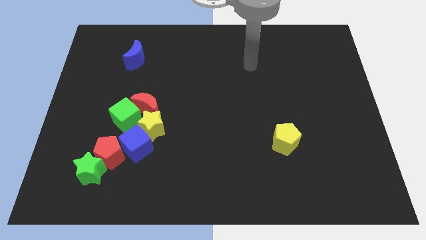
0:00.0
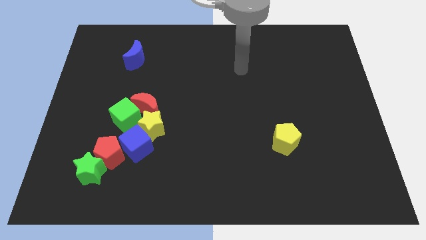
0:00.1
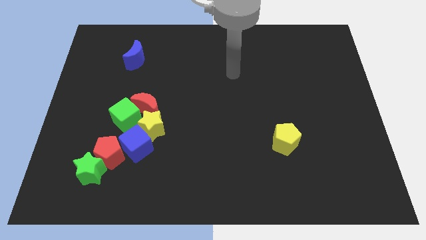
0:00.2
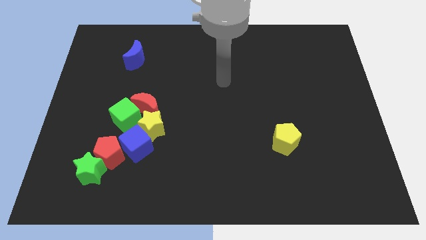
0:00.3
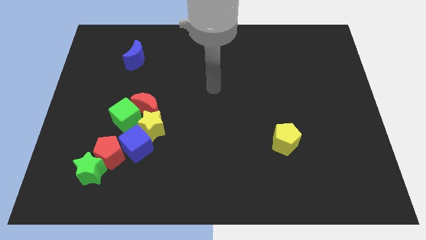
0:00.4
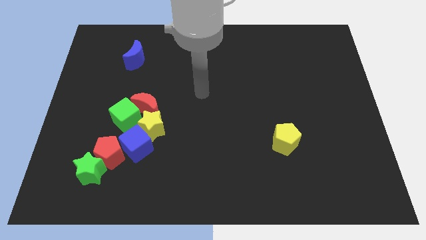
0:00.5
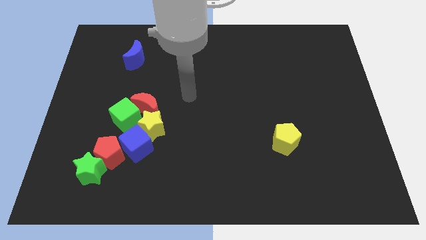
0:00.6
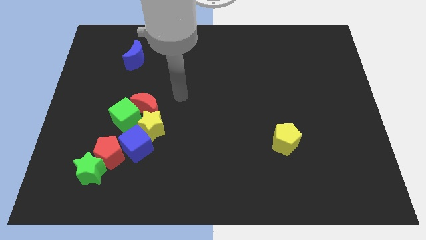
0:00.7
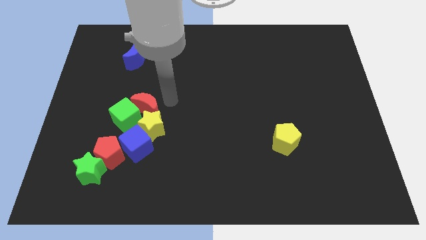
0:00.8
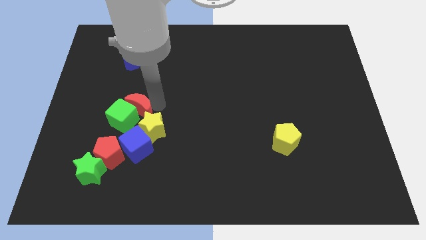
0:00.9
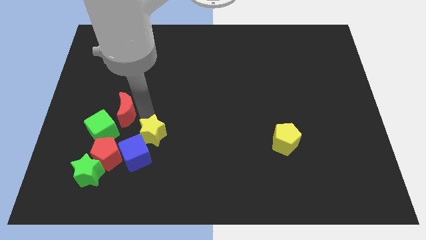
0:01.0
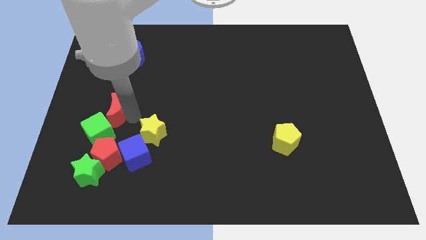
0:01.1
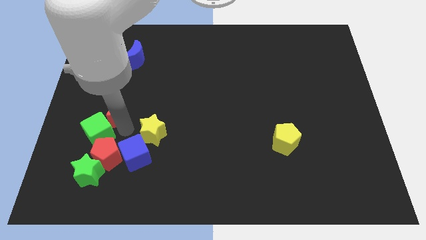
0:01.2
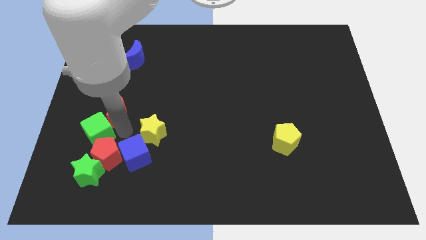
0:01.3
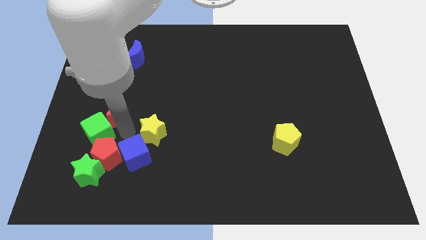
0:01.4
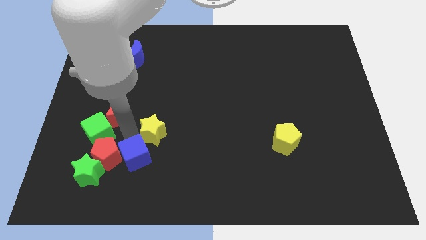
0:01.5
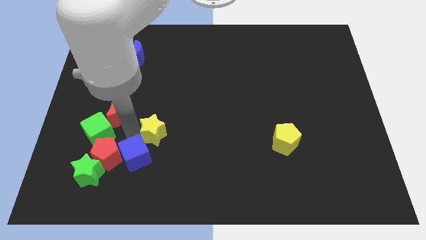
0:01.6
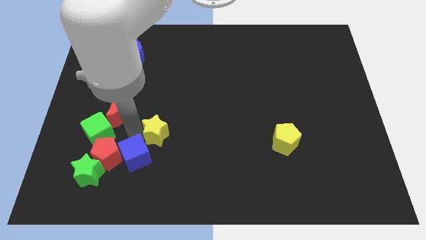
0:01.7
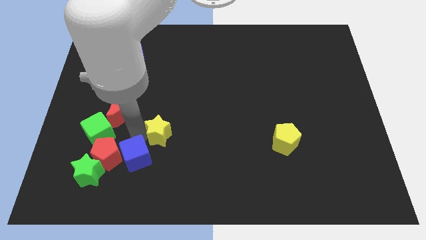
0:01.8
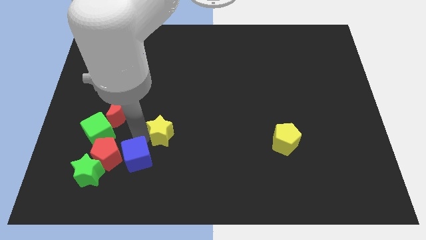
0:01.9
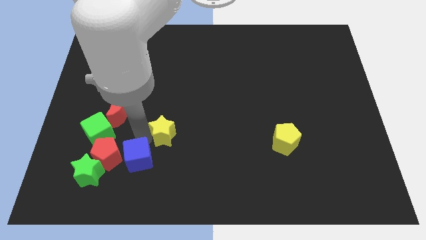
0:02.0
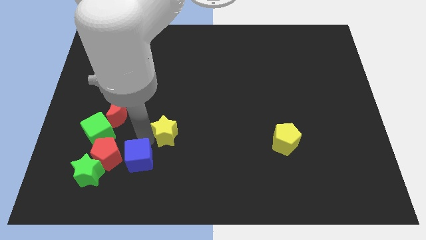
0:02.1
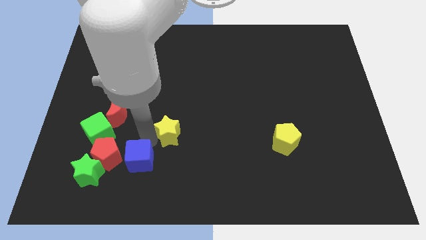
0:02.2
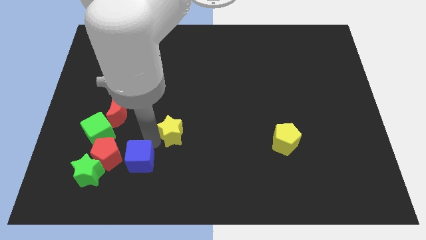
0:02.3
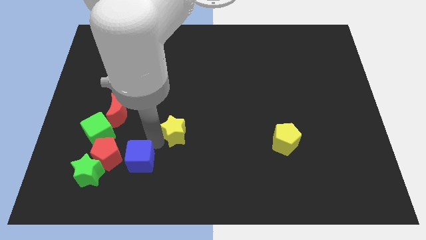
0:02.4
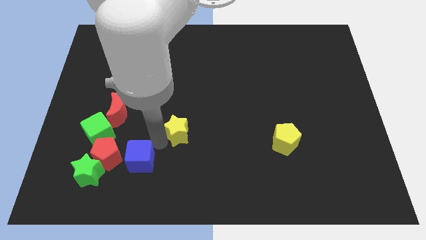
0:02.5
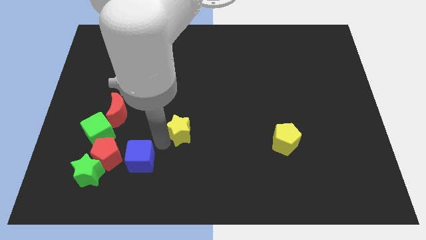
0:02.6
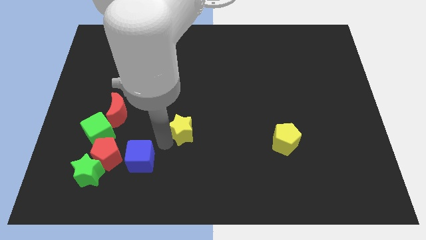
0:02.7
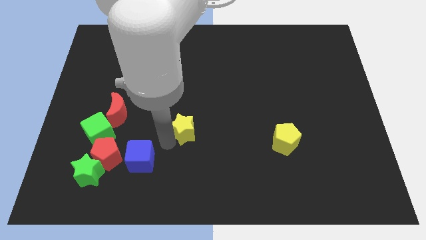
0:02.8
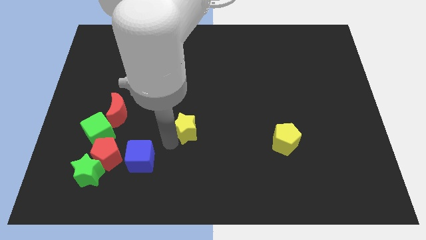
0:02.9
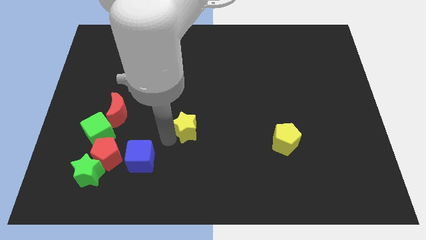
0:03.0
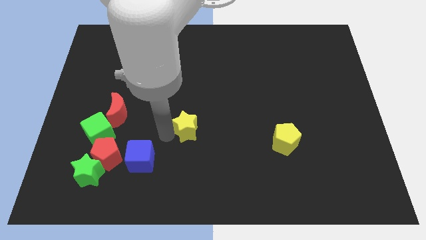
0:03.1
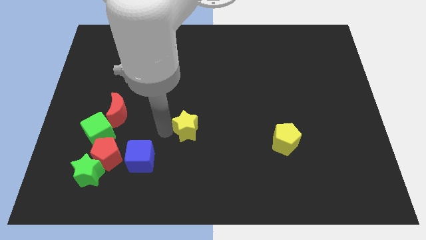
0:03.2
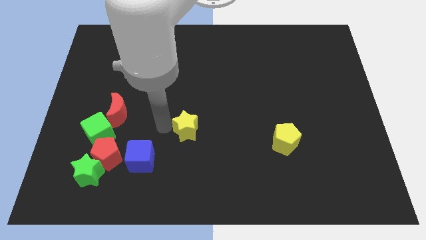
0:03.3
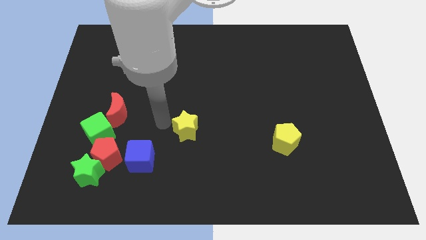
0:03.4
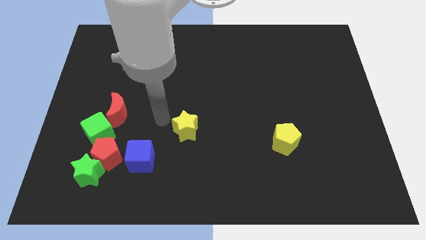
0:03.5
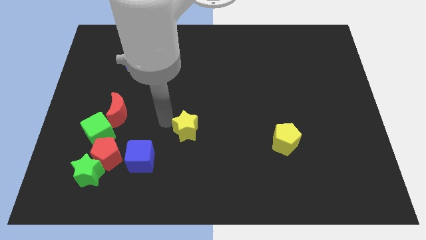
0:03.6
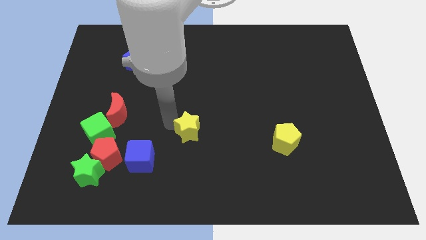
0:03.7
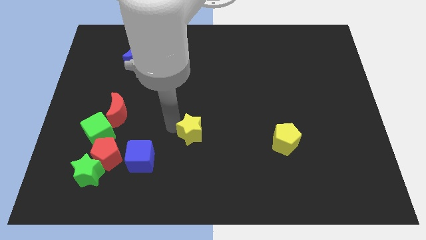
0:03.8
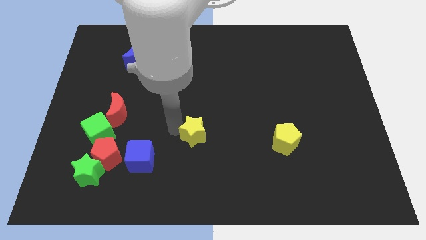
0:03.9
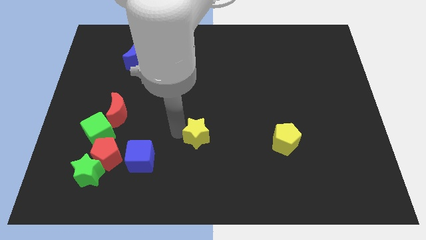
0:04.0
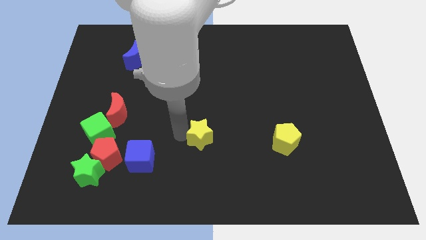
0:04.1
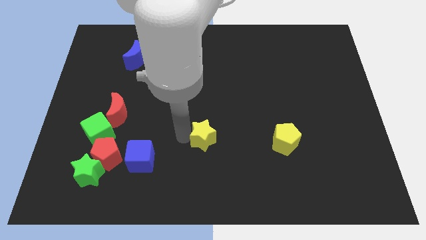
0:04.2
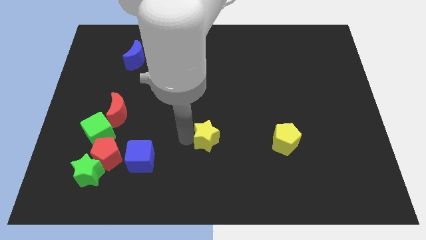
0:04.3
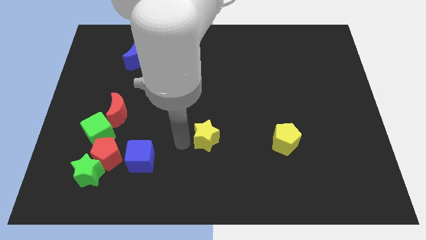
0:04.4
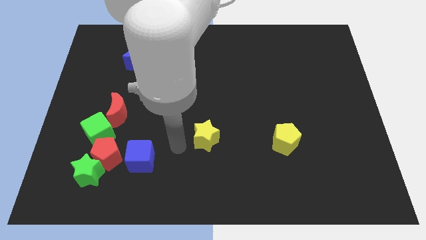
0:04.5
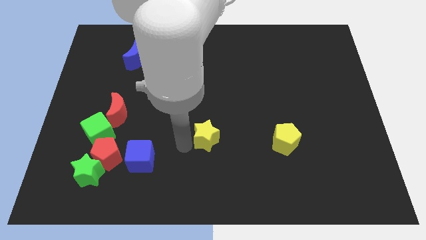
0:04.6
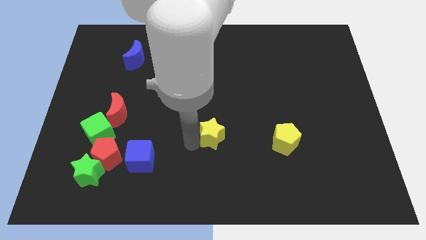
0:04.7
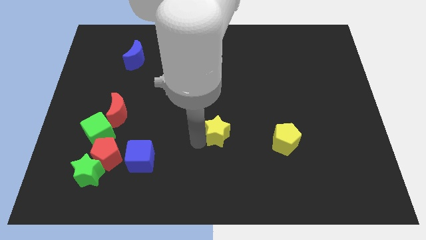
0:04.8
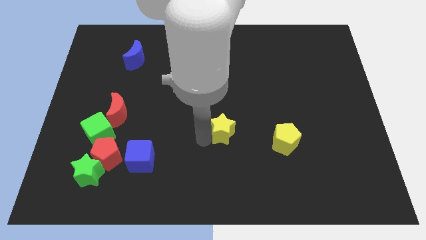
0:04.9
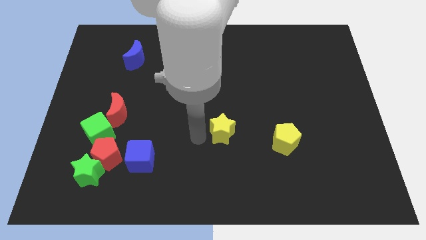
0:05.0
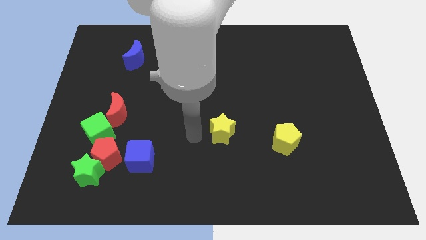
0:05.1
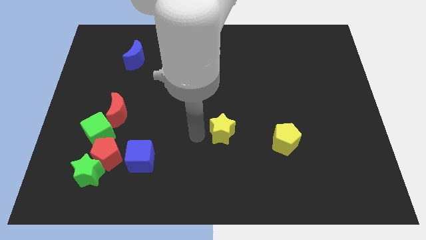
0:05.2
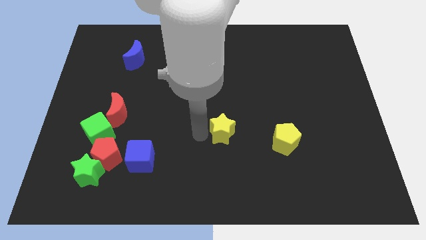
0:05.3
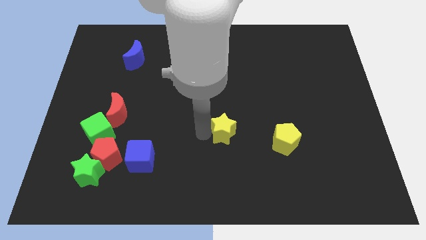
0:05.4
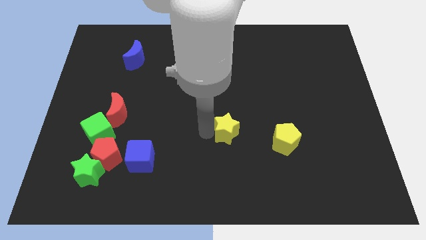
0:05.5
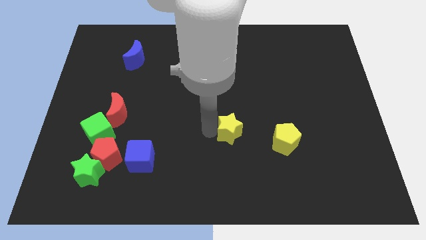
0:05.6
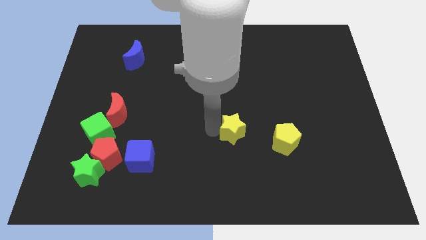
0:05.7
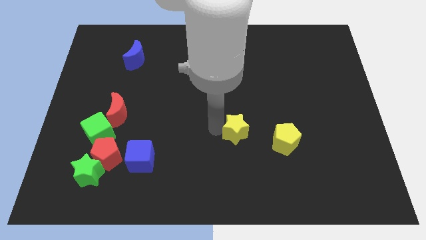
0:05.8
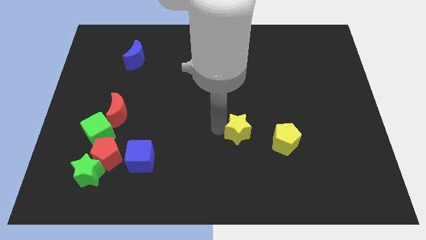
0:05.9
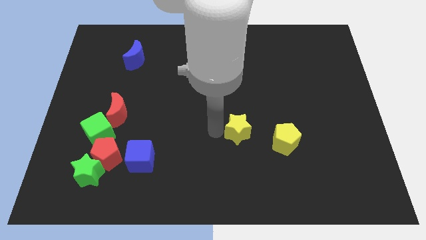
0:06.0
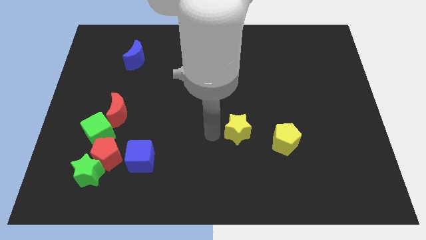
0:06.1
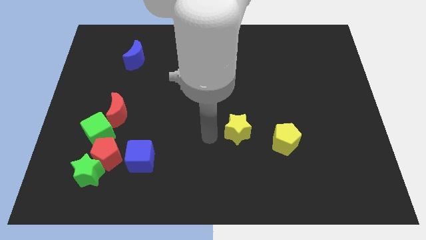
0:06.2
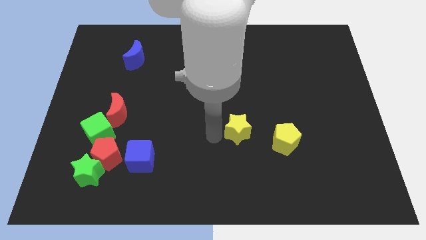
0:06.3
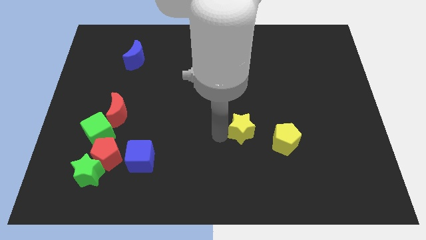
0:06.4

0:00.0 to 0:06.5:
push the yellow star right

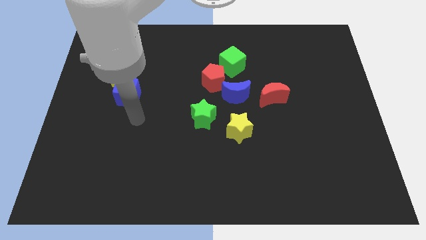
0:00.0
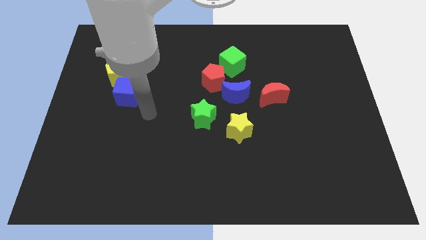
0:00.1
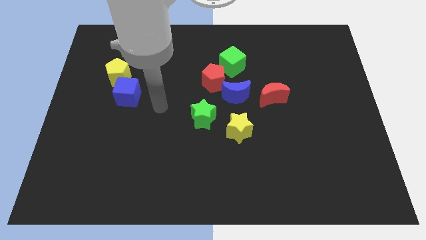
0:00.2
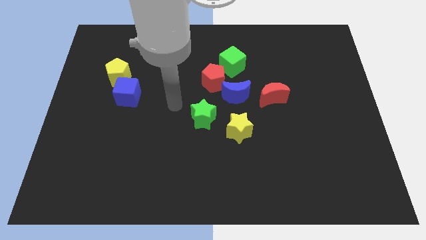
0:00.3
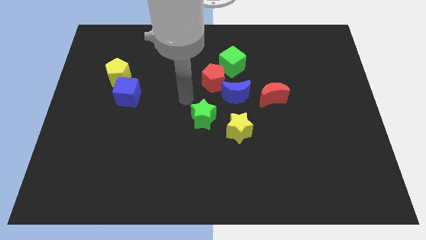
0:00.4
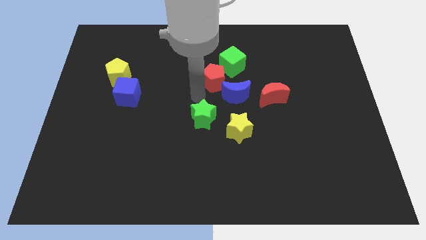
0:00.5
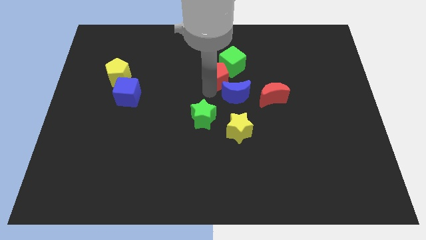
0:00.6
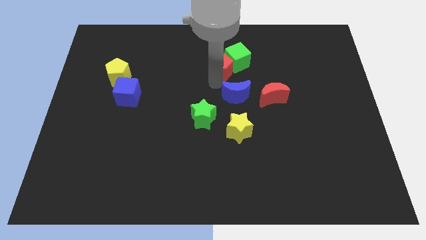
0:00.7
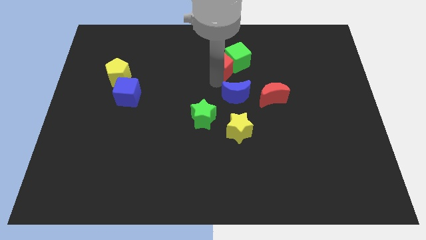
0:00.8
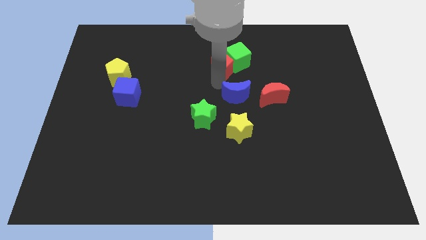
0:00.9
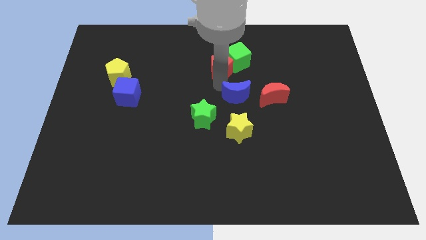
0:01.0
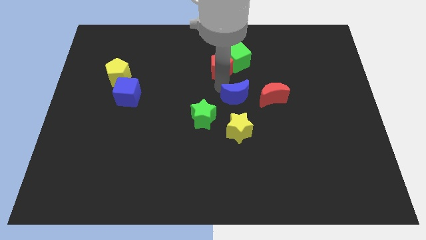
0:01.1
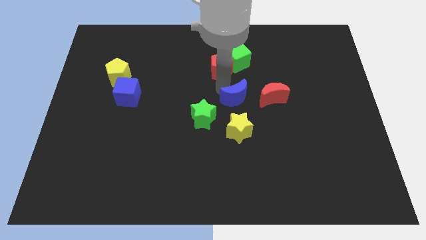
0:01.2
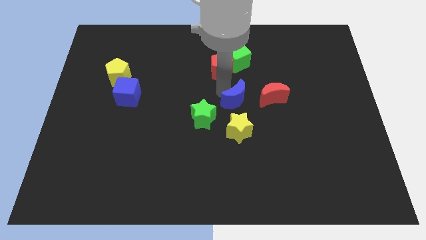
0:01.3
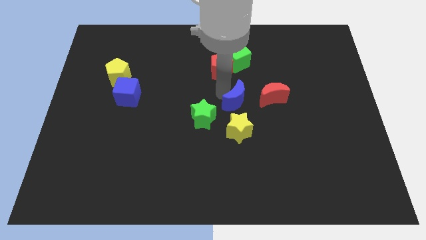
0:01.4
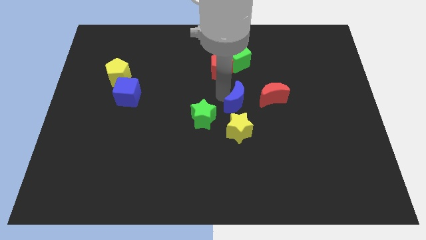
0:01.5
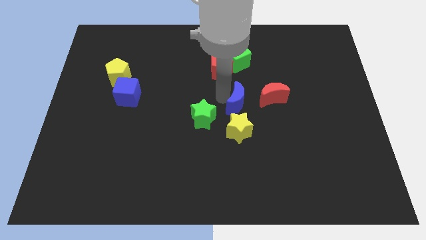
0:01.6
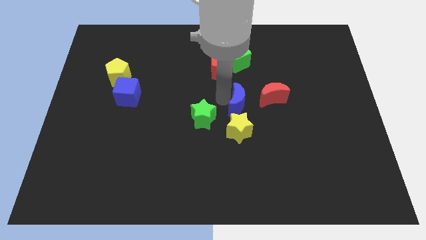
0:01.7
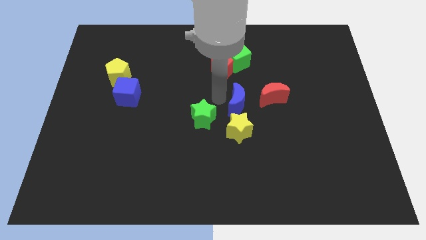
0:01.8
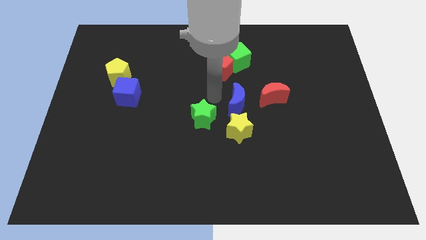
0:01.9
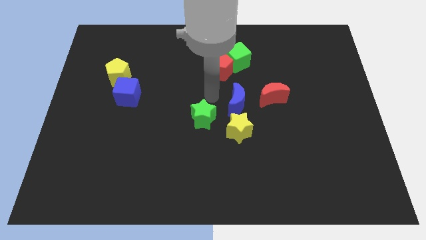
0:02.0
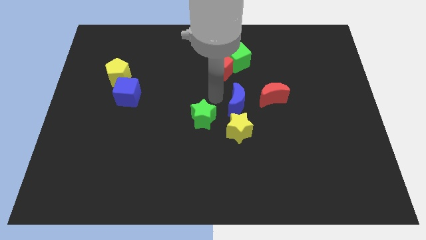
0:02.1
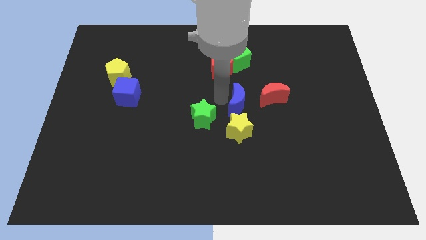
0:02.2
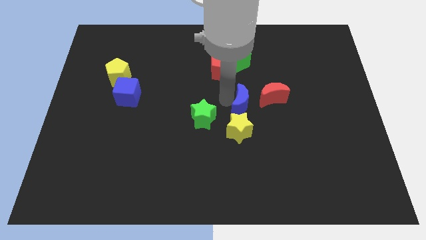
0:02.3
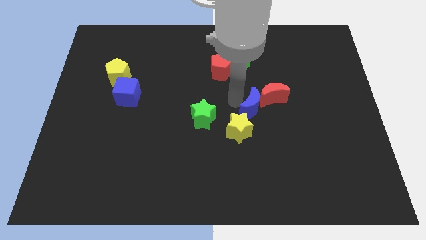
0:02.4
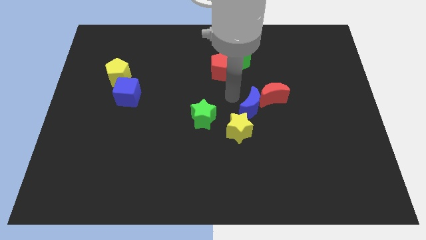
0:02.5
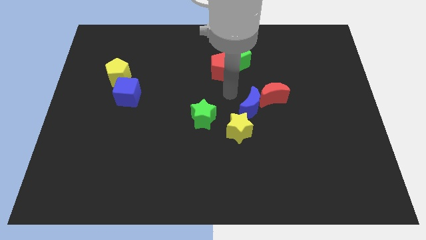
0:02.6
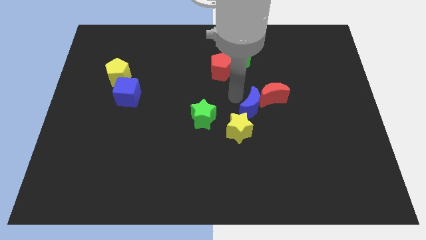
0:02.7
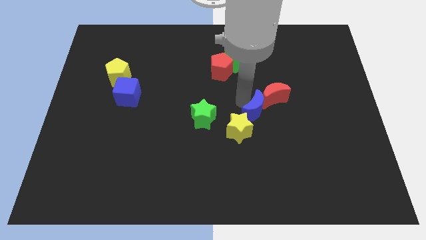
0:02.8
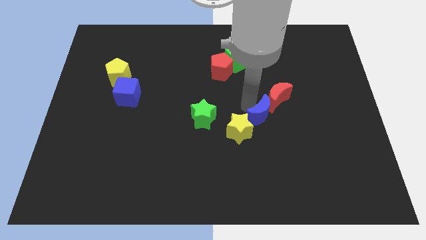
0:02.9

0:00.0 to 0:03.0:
slightly slide the blue moon down and to the right
